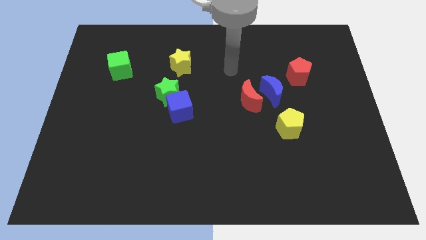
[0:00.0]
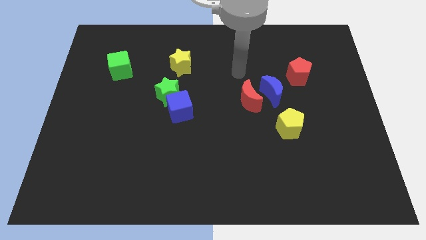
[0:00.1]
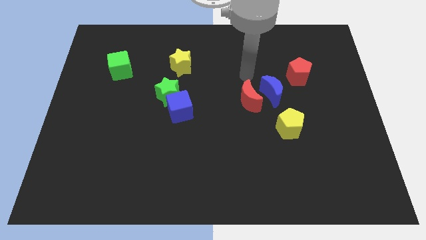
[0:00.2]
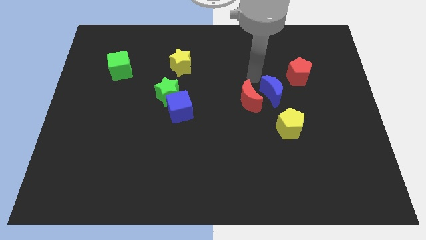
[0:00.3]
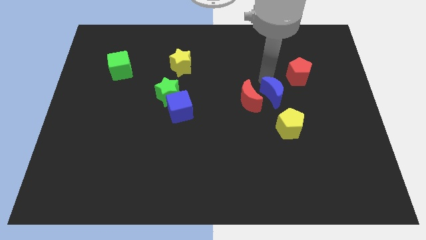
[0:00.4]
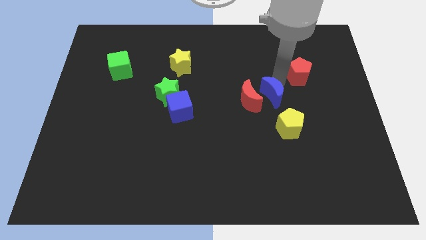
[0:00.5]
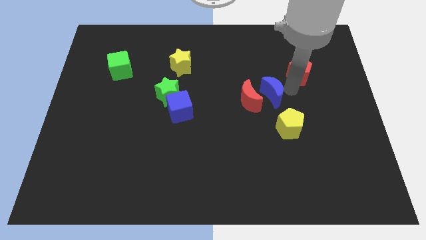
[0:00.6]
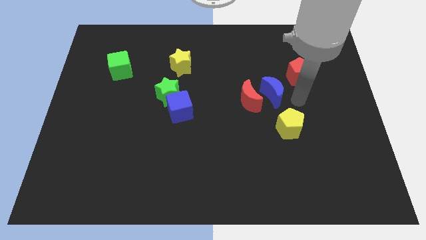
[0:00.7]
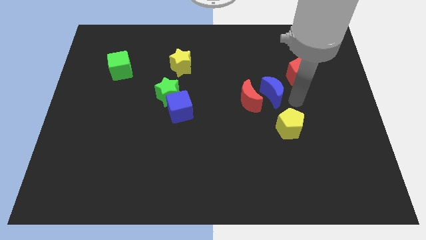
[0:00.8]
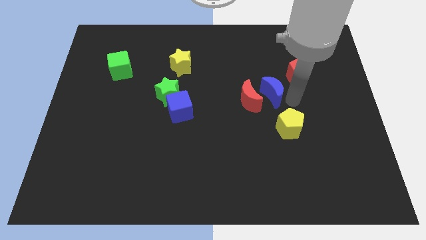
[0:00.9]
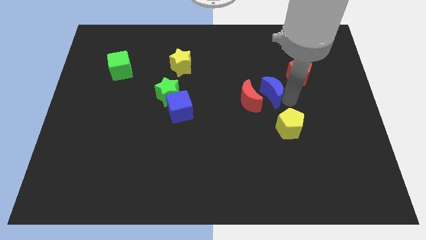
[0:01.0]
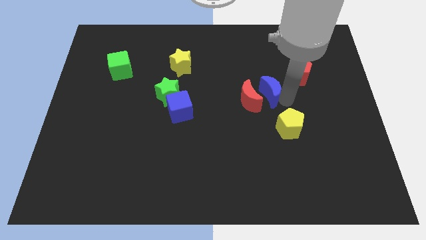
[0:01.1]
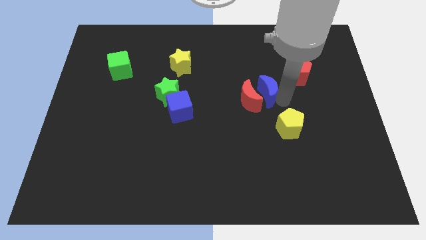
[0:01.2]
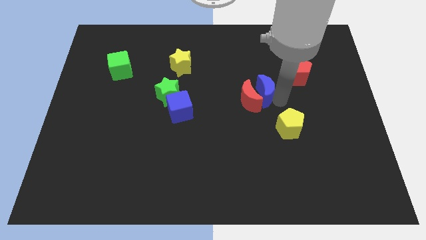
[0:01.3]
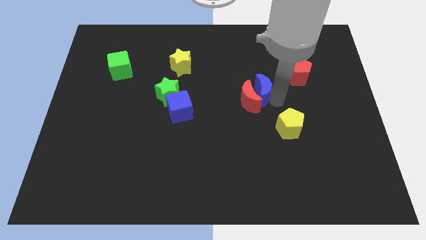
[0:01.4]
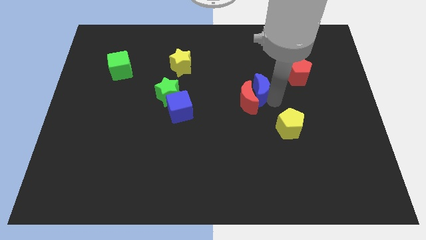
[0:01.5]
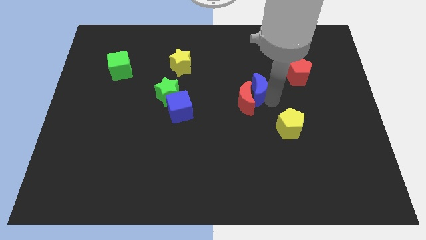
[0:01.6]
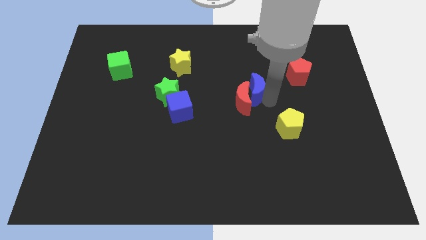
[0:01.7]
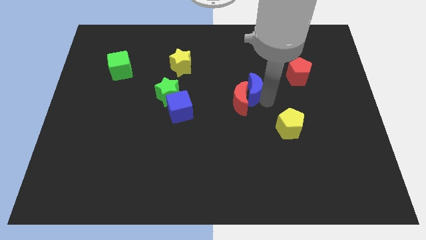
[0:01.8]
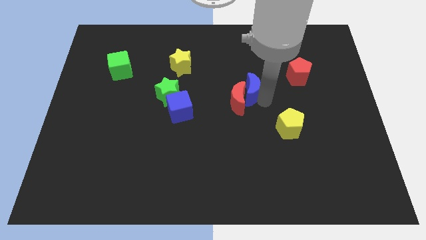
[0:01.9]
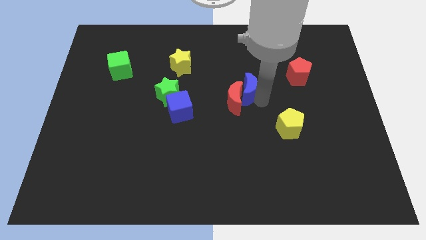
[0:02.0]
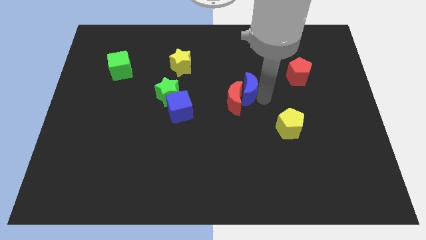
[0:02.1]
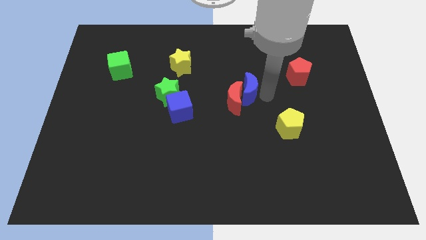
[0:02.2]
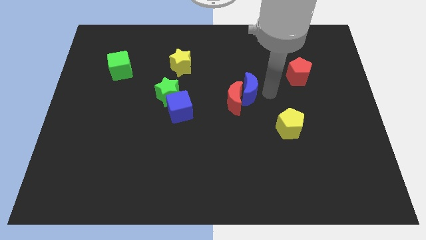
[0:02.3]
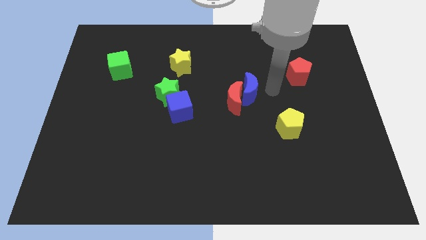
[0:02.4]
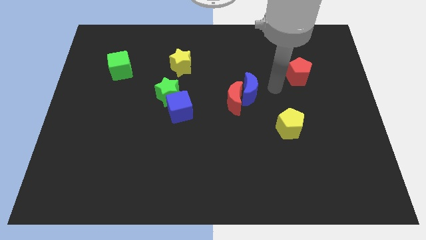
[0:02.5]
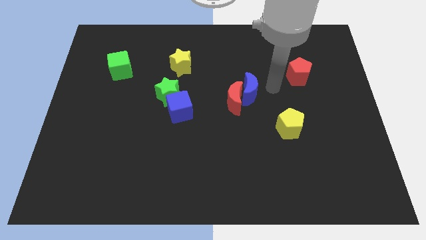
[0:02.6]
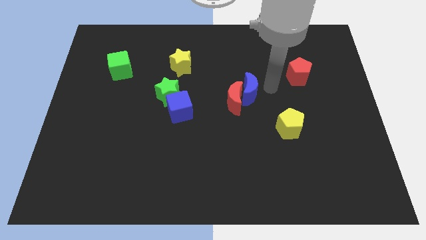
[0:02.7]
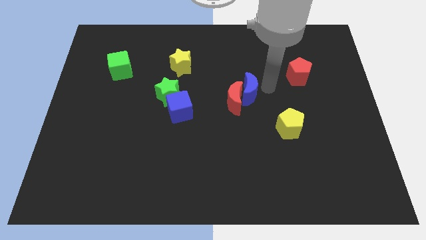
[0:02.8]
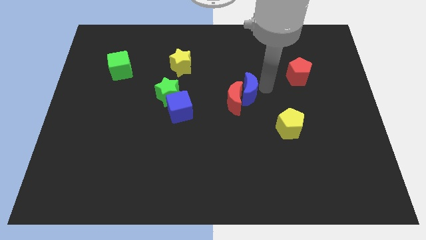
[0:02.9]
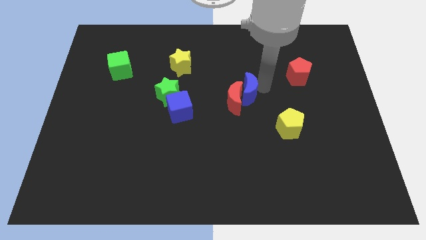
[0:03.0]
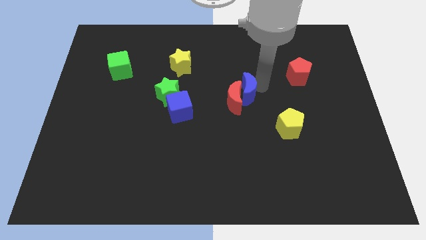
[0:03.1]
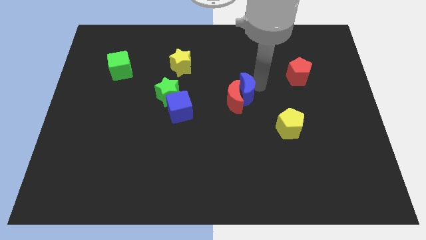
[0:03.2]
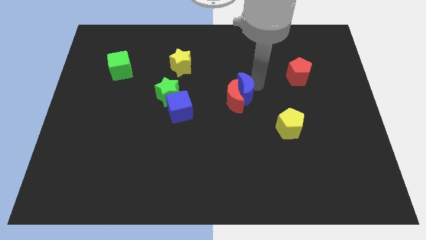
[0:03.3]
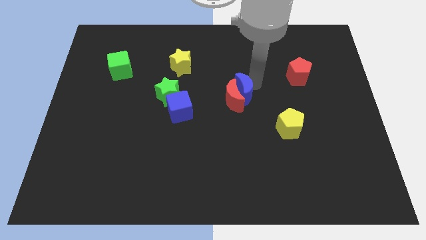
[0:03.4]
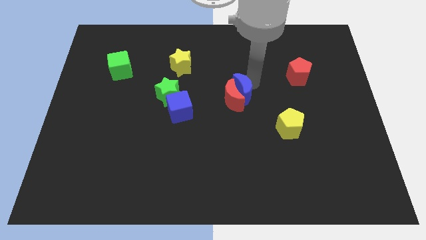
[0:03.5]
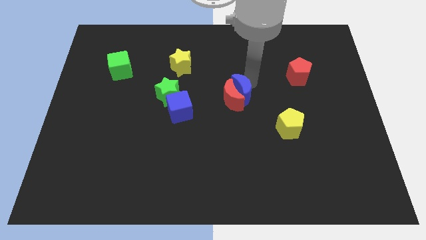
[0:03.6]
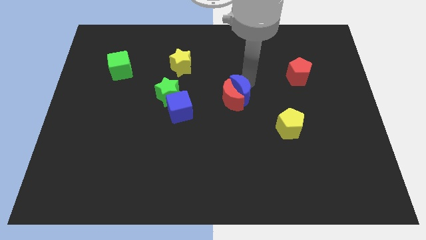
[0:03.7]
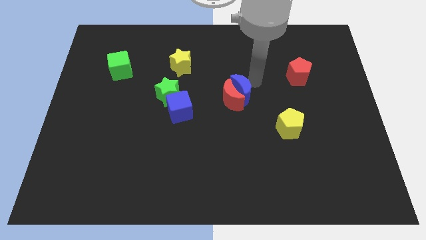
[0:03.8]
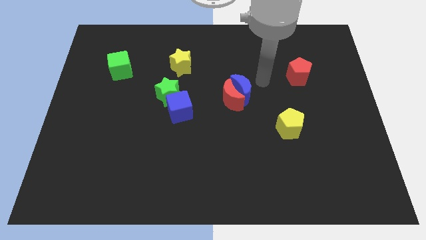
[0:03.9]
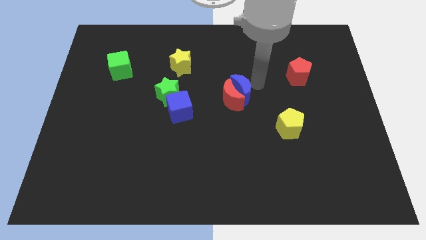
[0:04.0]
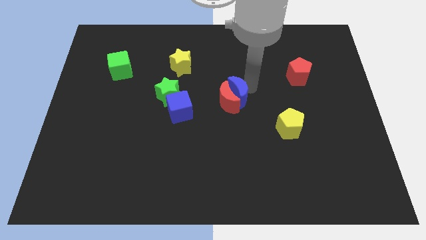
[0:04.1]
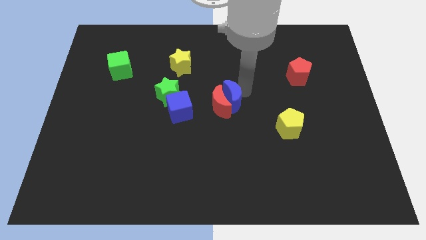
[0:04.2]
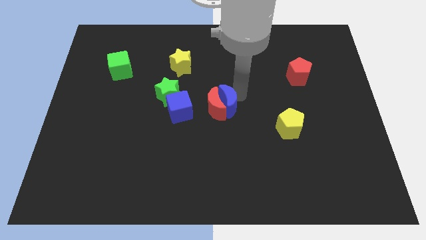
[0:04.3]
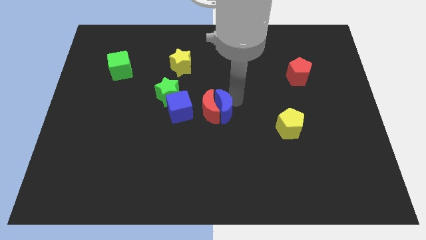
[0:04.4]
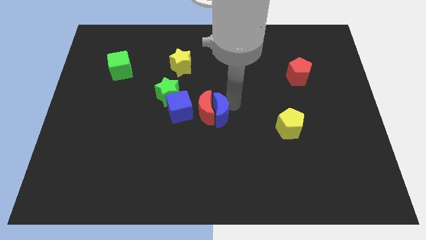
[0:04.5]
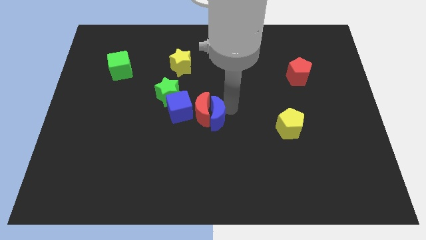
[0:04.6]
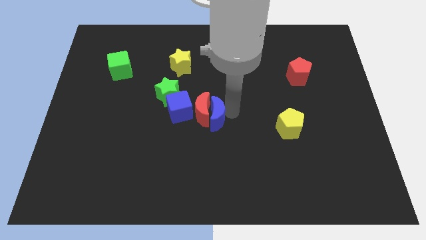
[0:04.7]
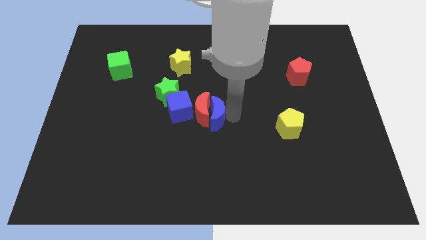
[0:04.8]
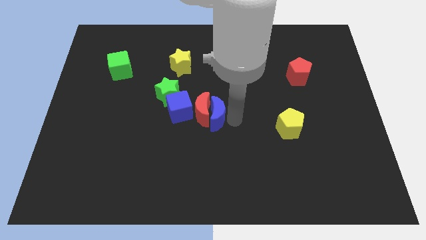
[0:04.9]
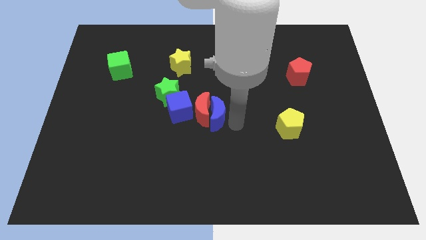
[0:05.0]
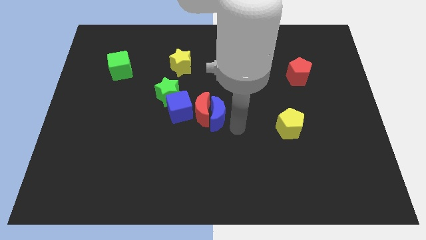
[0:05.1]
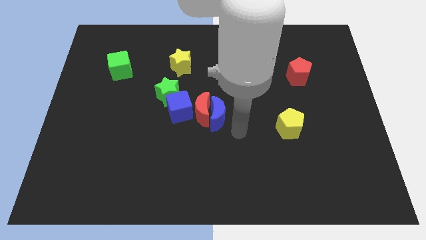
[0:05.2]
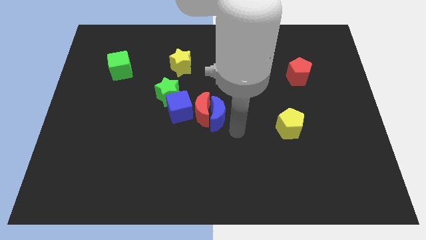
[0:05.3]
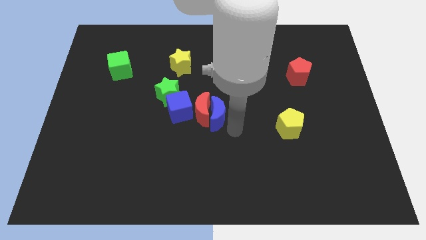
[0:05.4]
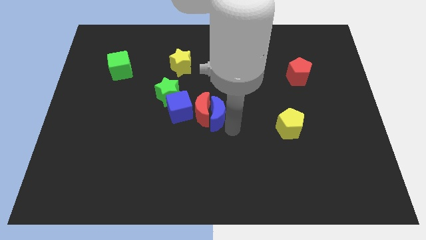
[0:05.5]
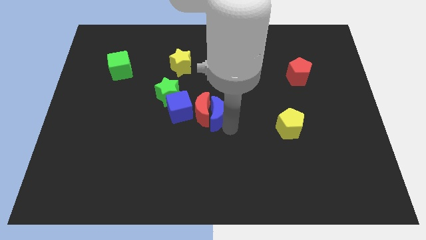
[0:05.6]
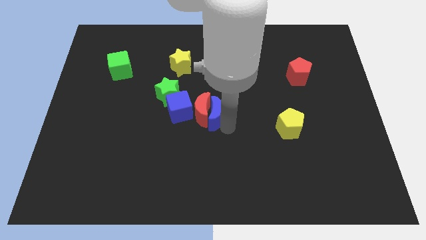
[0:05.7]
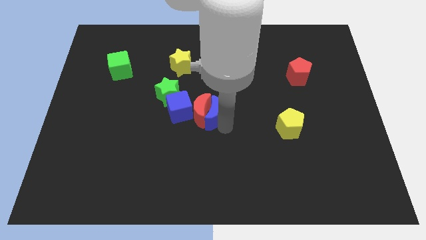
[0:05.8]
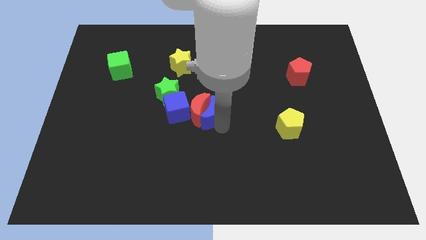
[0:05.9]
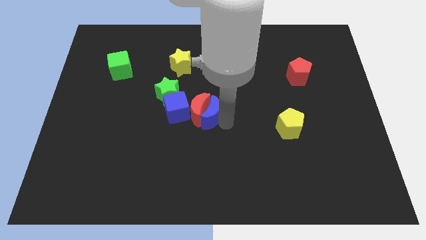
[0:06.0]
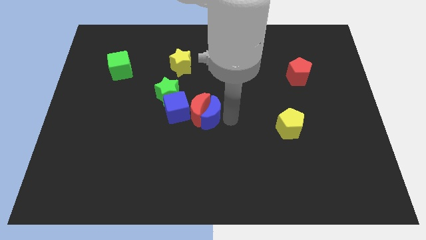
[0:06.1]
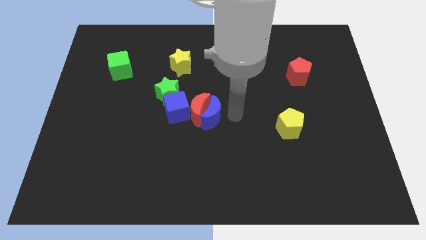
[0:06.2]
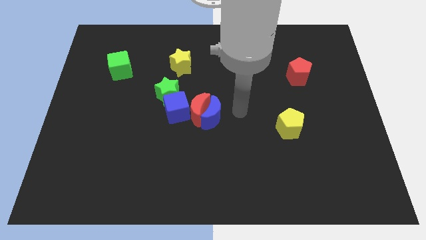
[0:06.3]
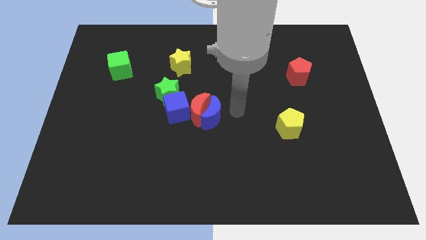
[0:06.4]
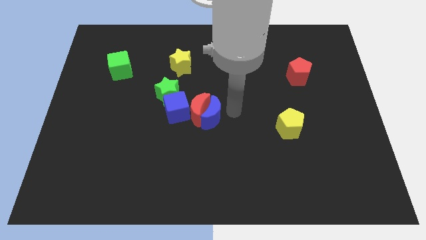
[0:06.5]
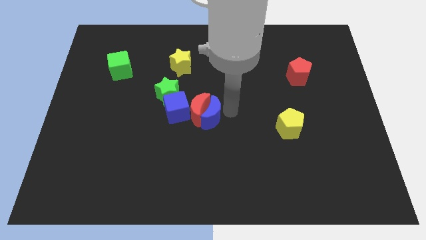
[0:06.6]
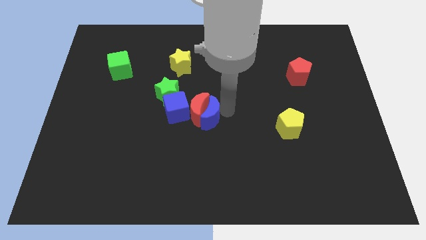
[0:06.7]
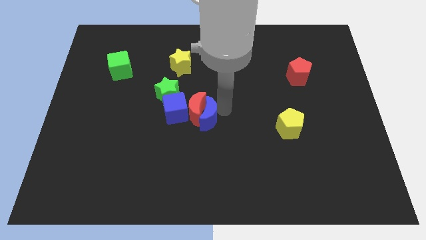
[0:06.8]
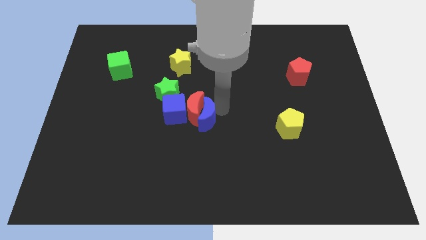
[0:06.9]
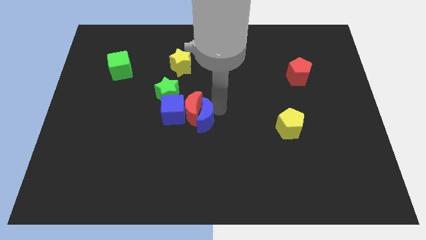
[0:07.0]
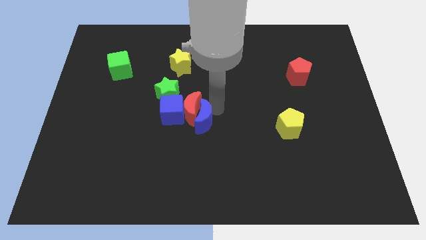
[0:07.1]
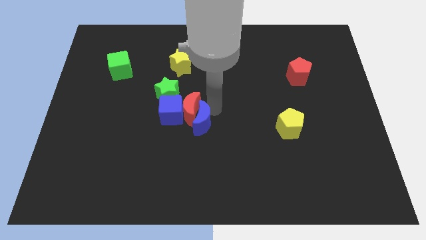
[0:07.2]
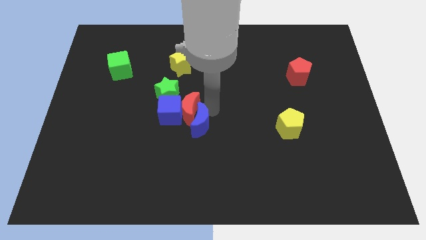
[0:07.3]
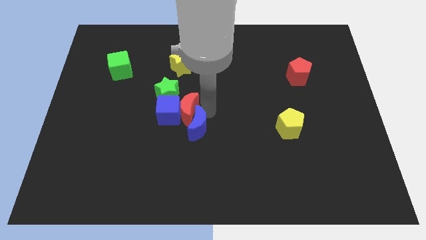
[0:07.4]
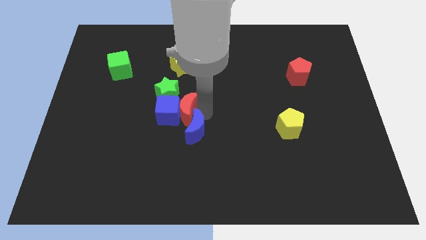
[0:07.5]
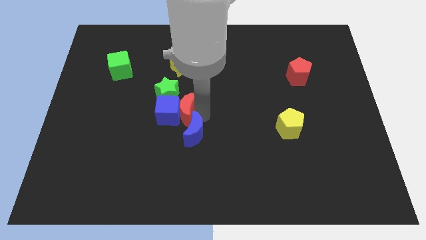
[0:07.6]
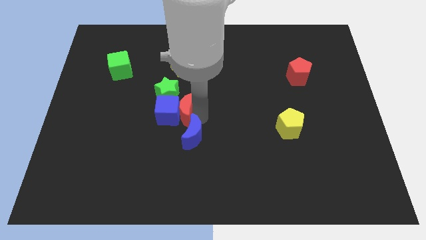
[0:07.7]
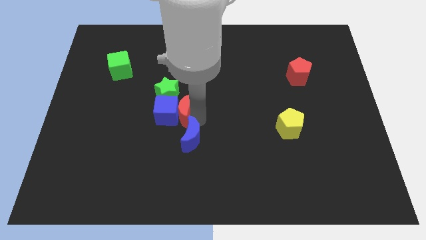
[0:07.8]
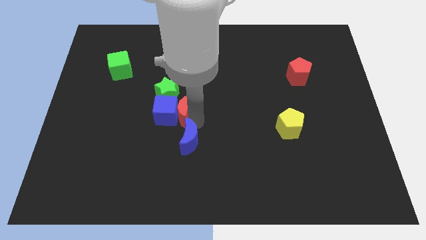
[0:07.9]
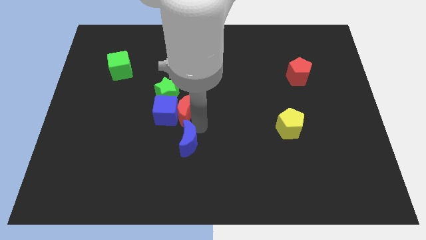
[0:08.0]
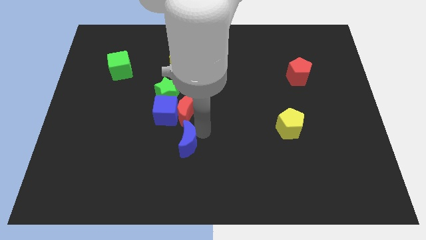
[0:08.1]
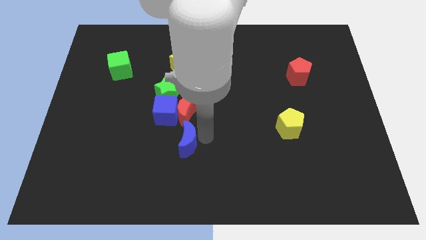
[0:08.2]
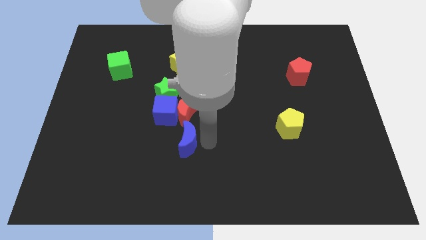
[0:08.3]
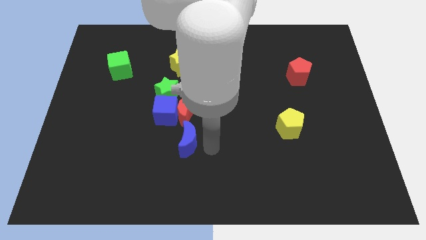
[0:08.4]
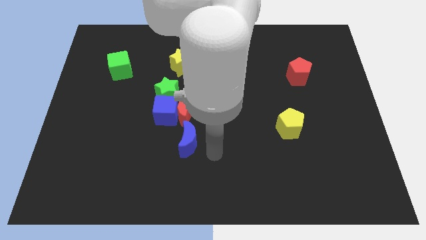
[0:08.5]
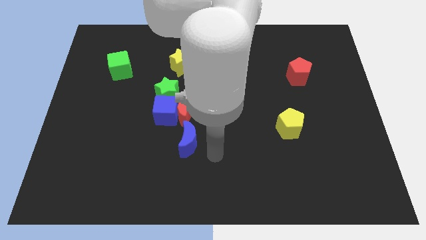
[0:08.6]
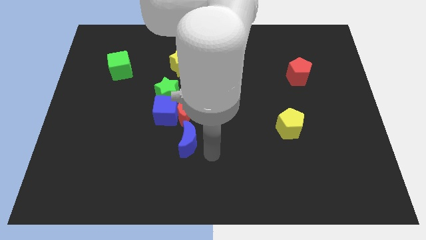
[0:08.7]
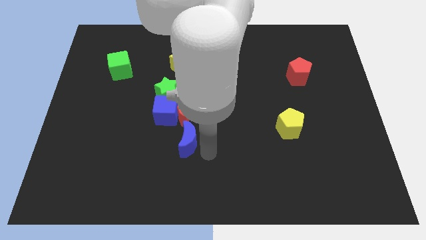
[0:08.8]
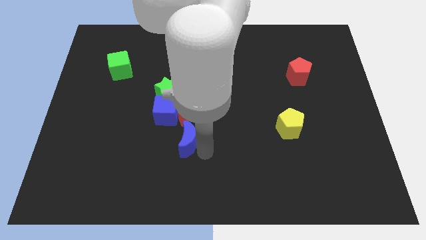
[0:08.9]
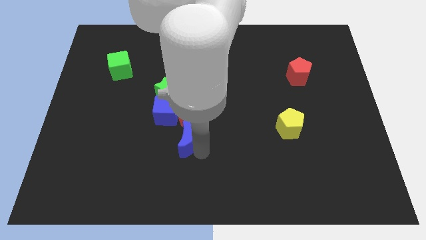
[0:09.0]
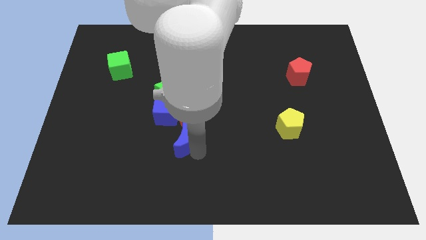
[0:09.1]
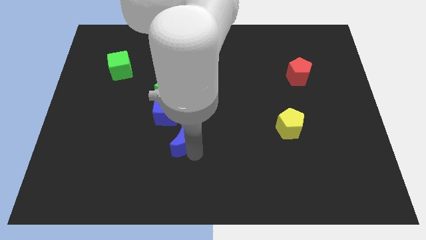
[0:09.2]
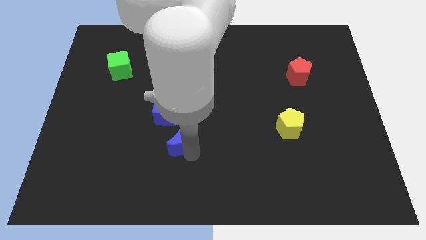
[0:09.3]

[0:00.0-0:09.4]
push the blue moon to the bottom of the green star
